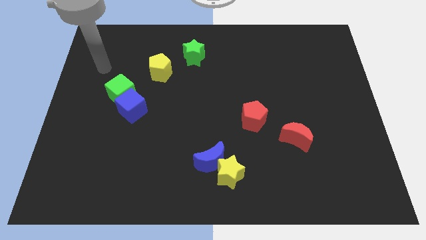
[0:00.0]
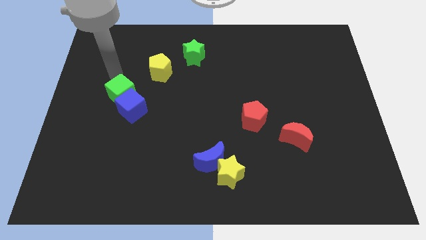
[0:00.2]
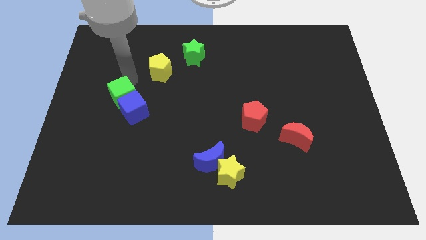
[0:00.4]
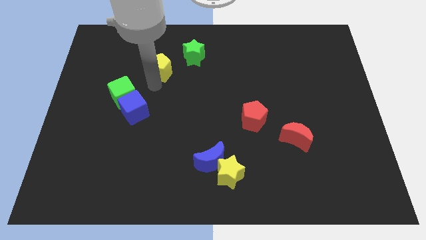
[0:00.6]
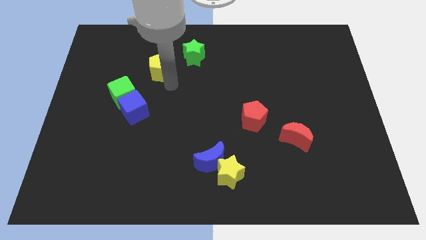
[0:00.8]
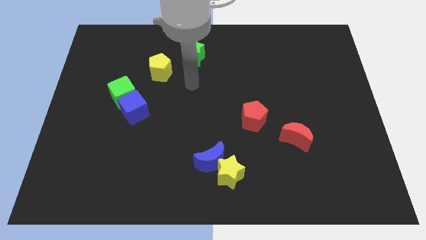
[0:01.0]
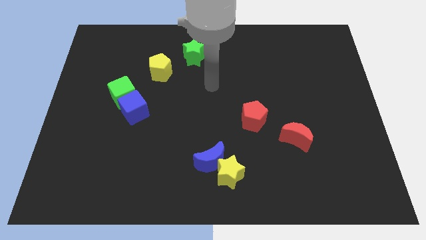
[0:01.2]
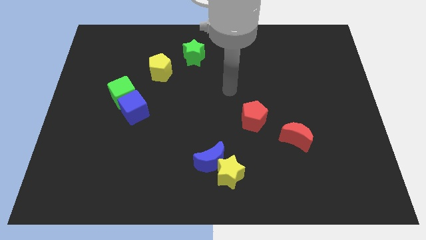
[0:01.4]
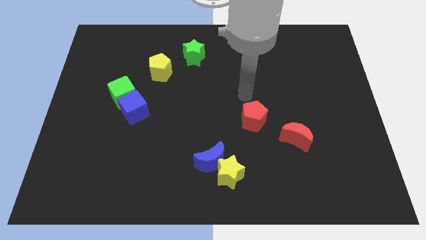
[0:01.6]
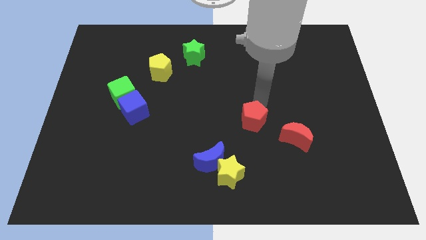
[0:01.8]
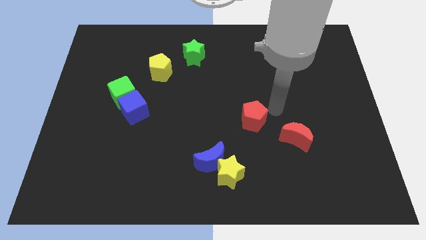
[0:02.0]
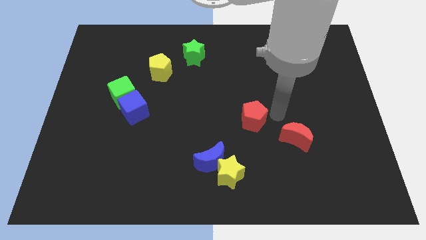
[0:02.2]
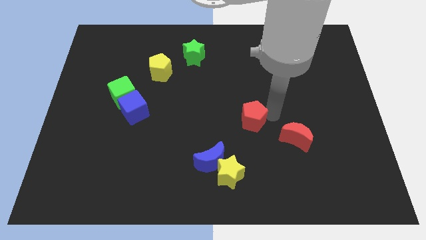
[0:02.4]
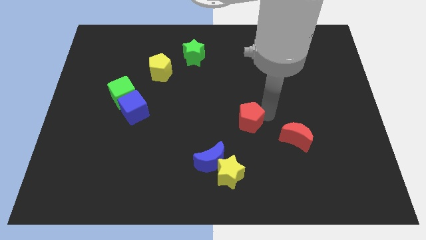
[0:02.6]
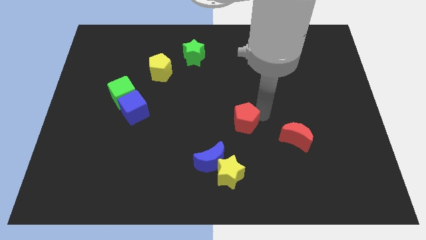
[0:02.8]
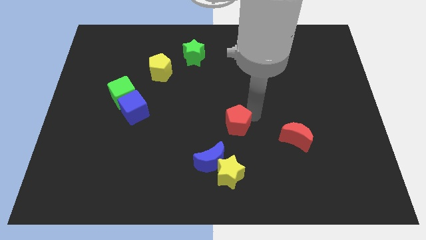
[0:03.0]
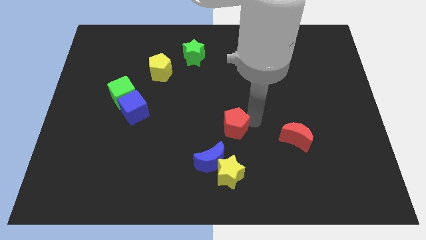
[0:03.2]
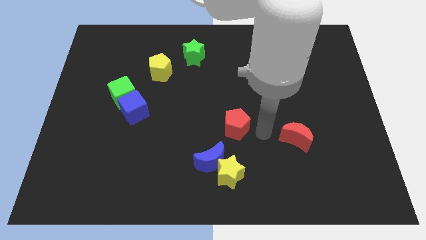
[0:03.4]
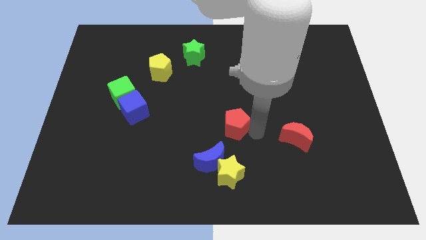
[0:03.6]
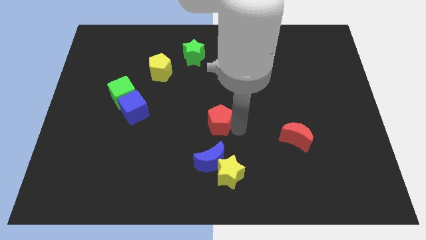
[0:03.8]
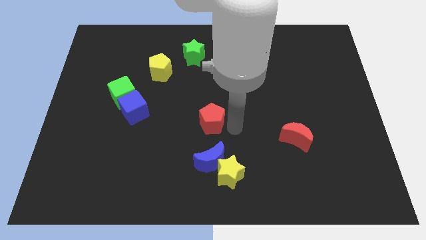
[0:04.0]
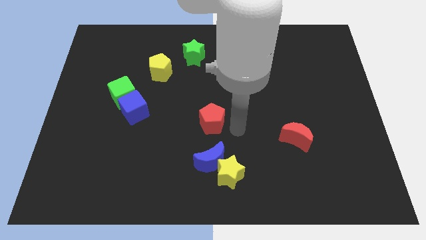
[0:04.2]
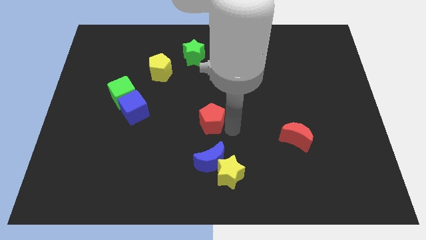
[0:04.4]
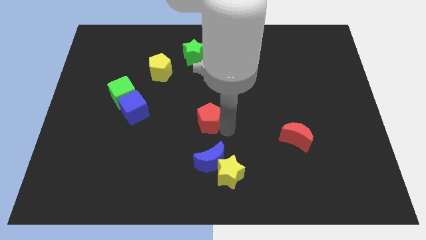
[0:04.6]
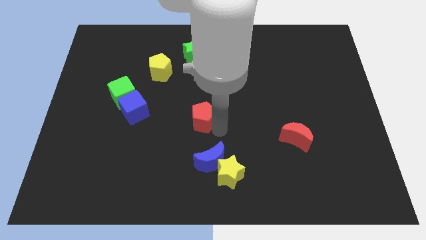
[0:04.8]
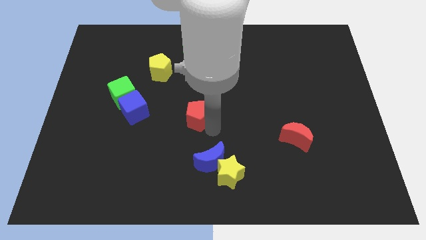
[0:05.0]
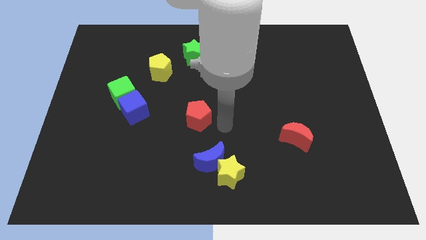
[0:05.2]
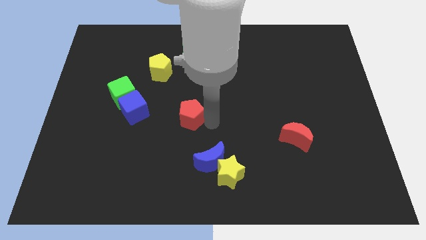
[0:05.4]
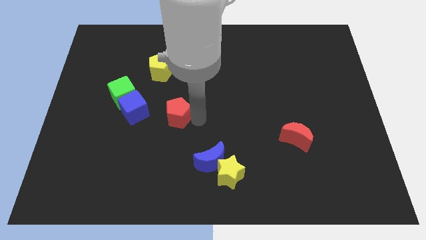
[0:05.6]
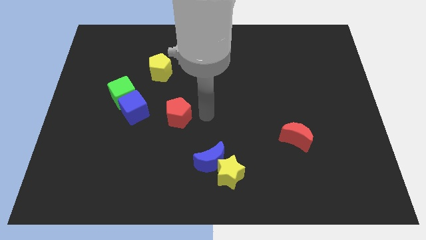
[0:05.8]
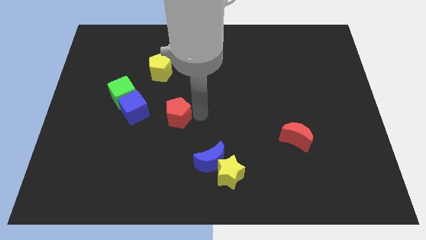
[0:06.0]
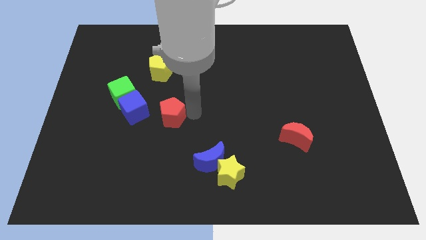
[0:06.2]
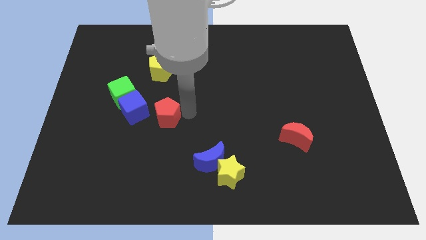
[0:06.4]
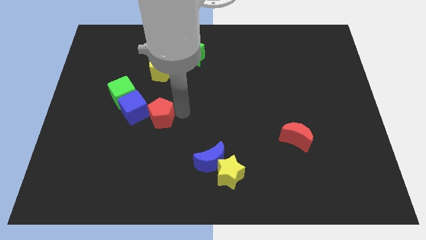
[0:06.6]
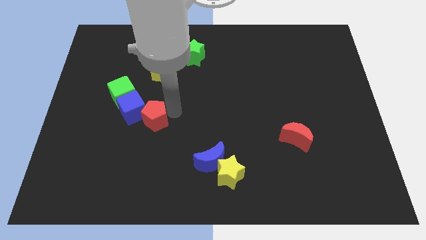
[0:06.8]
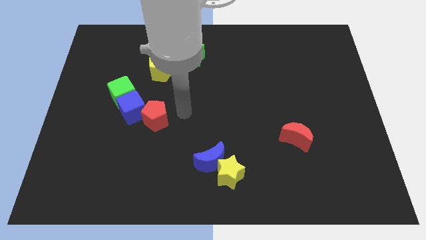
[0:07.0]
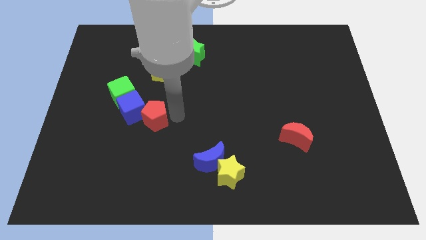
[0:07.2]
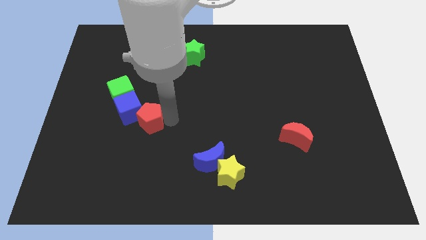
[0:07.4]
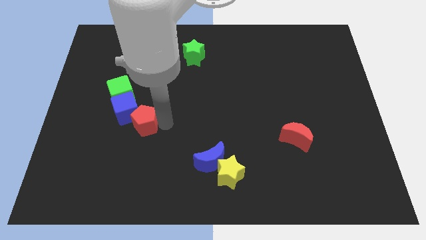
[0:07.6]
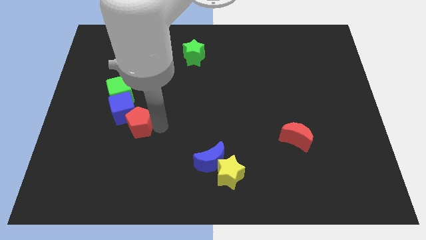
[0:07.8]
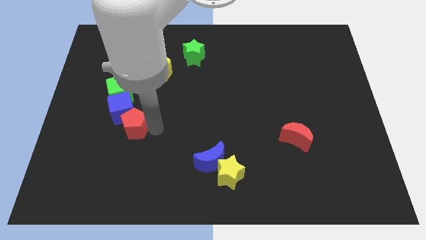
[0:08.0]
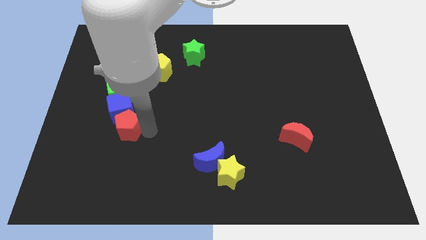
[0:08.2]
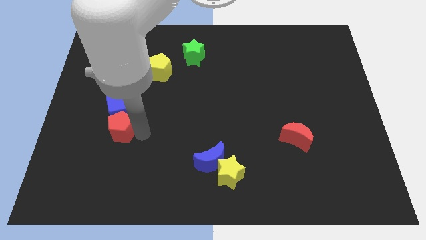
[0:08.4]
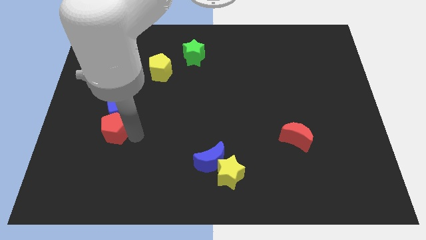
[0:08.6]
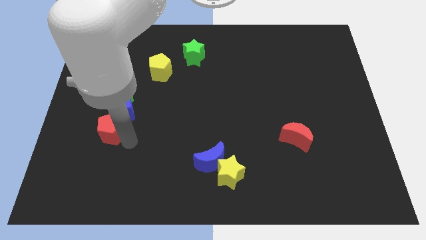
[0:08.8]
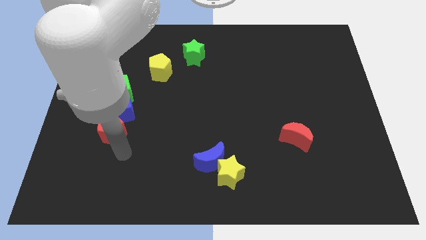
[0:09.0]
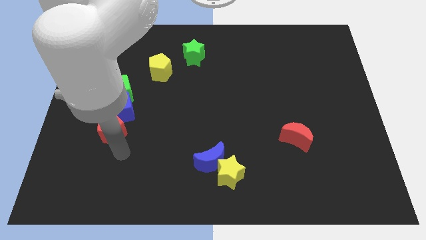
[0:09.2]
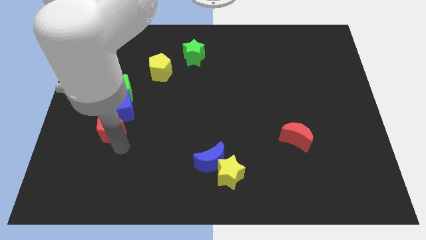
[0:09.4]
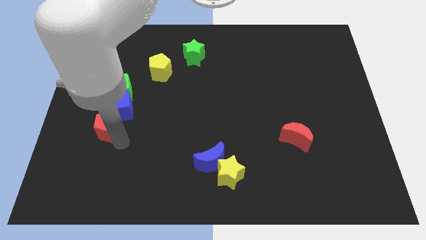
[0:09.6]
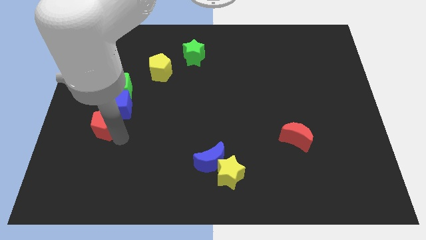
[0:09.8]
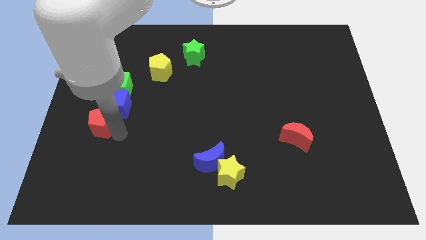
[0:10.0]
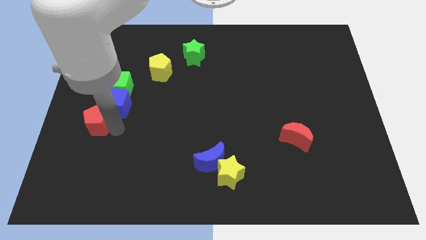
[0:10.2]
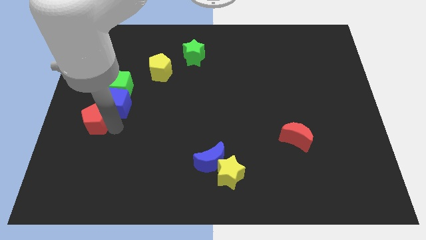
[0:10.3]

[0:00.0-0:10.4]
push the red pentagon to the left side of the board

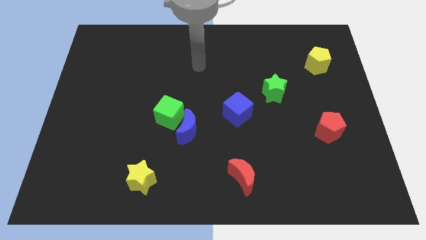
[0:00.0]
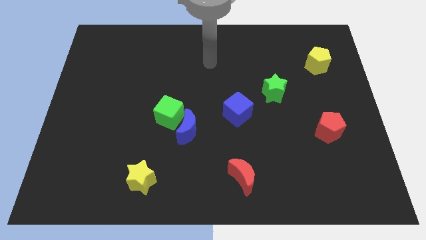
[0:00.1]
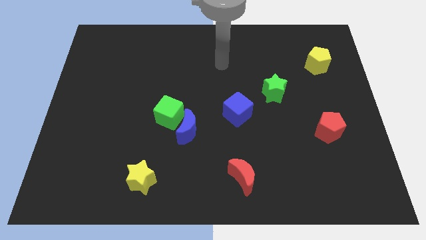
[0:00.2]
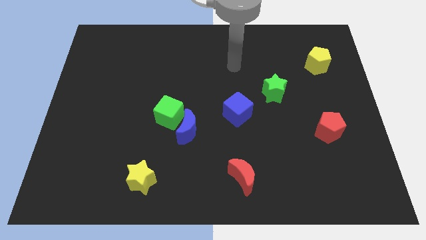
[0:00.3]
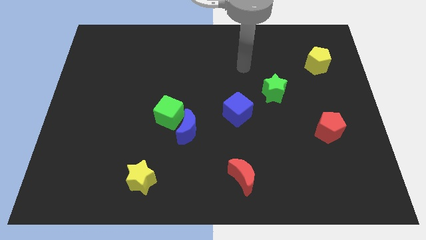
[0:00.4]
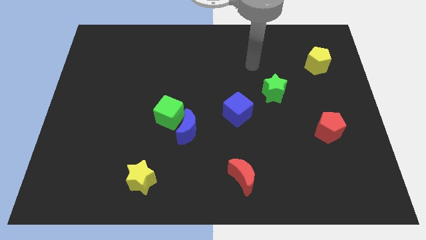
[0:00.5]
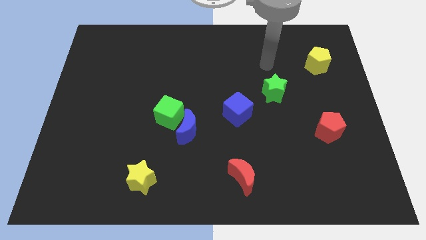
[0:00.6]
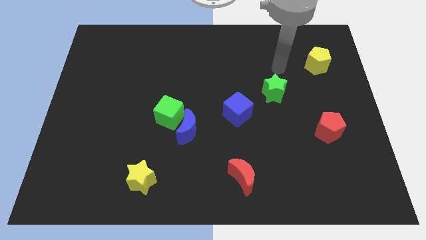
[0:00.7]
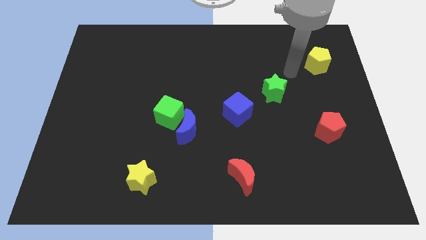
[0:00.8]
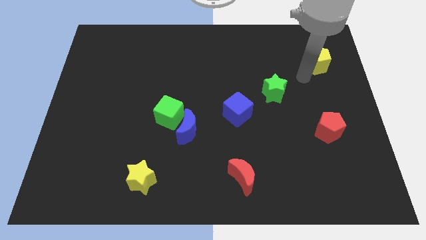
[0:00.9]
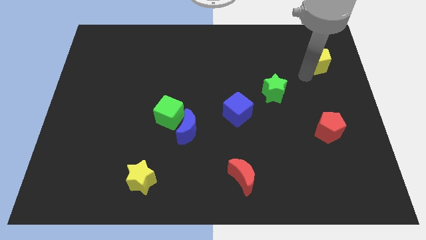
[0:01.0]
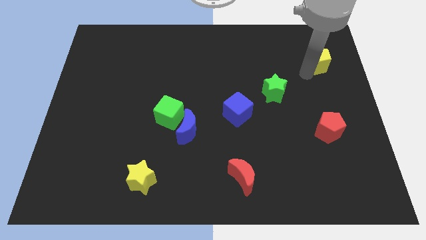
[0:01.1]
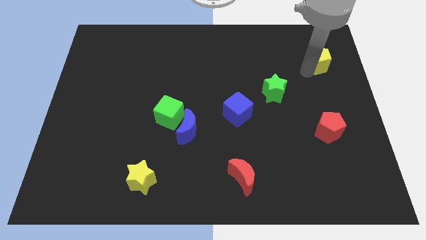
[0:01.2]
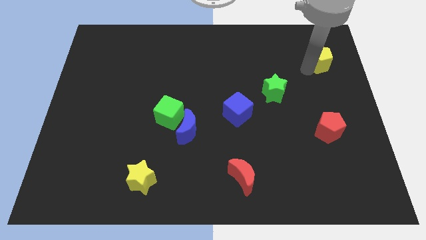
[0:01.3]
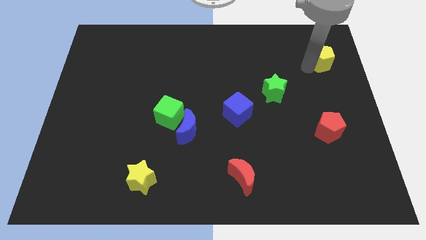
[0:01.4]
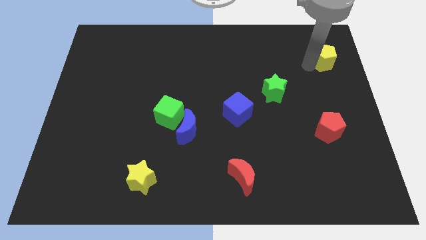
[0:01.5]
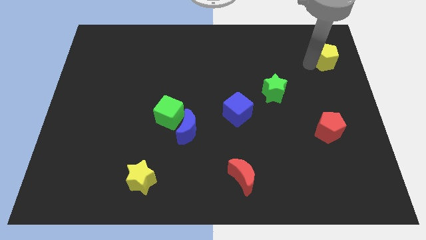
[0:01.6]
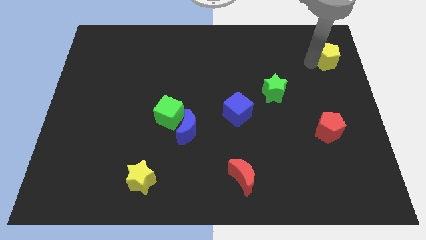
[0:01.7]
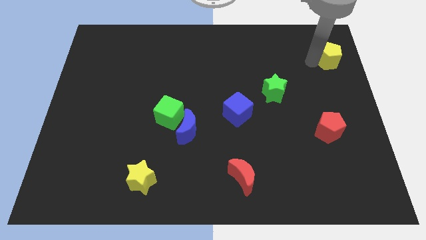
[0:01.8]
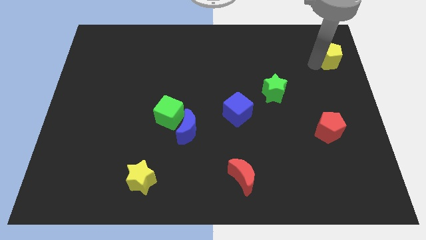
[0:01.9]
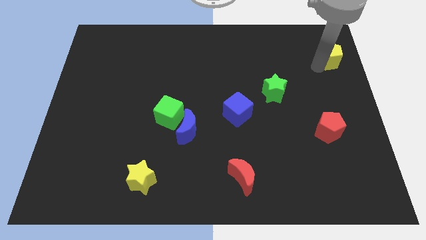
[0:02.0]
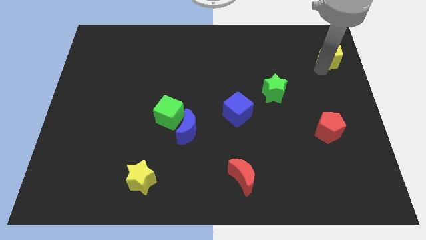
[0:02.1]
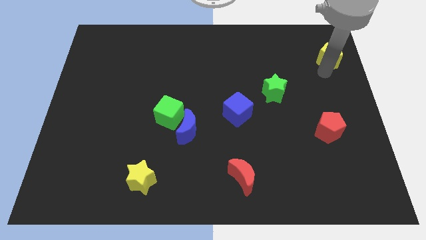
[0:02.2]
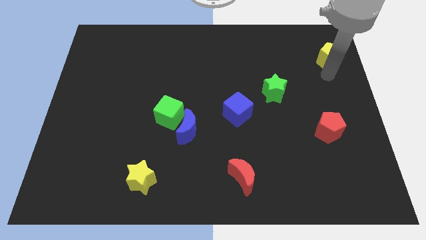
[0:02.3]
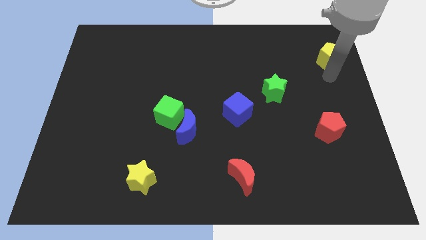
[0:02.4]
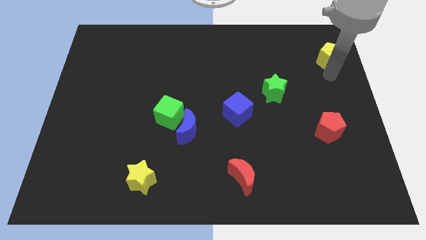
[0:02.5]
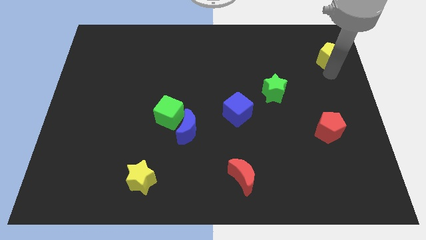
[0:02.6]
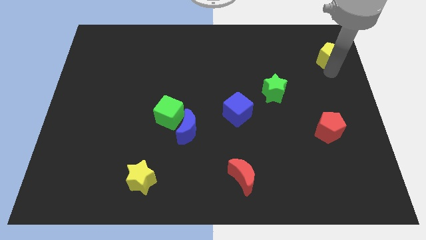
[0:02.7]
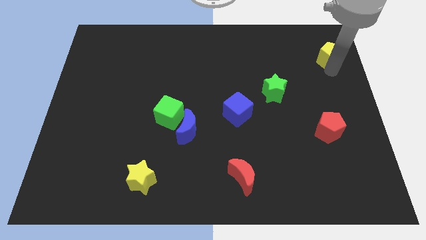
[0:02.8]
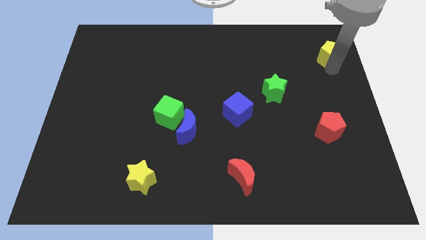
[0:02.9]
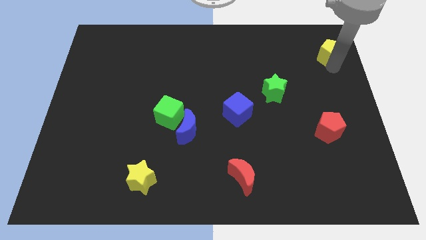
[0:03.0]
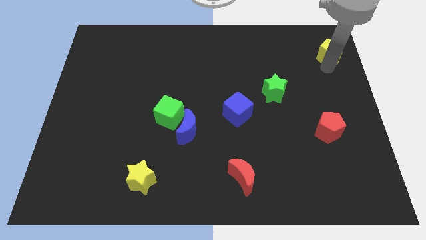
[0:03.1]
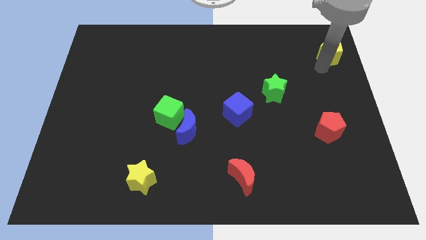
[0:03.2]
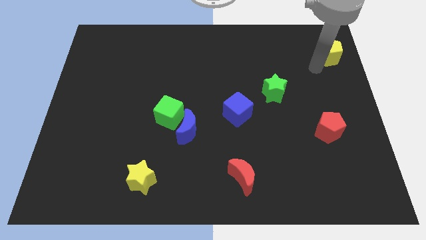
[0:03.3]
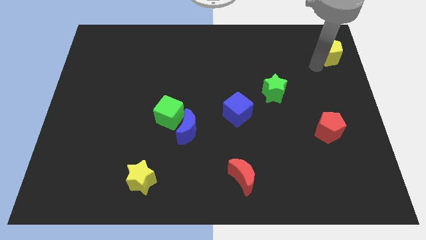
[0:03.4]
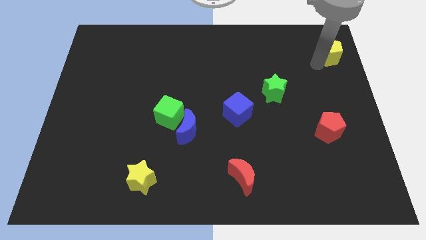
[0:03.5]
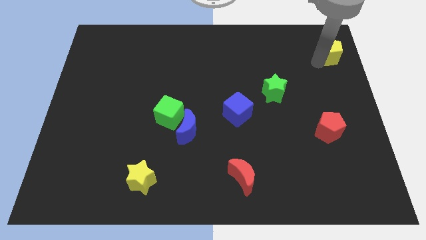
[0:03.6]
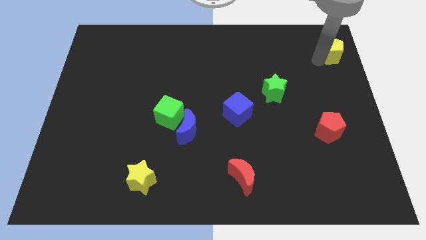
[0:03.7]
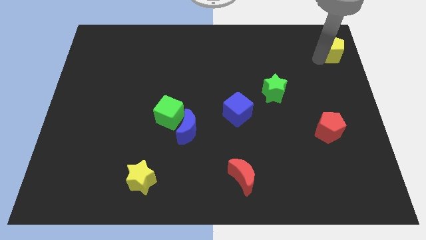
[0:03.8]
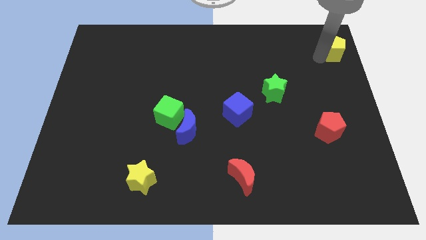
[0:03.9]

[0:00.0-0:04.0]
slide the yellow pentagon to the top right corner
